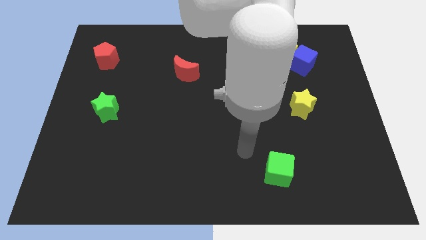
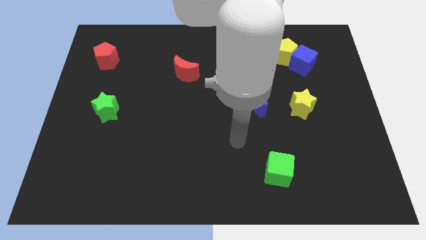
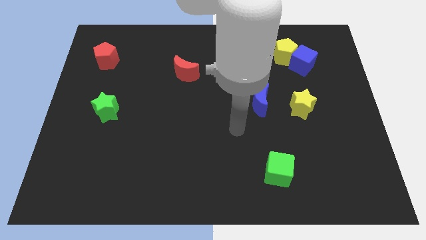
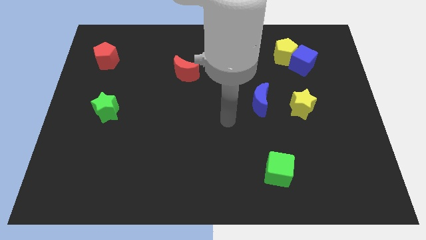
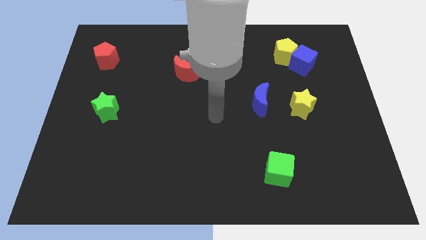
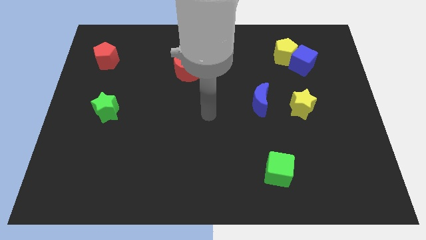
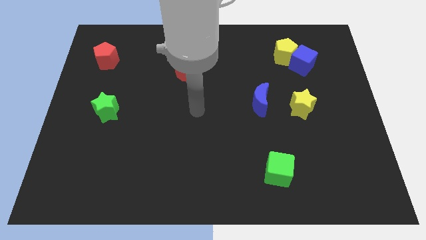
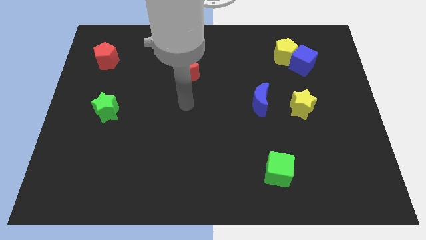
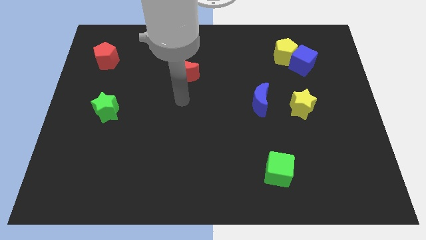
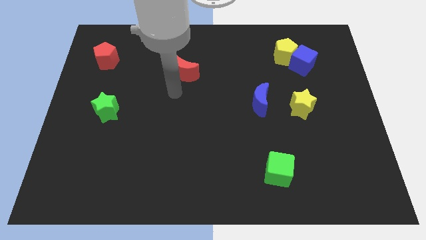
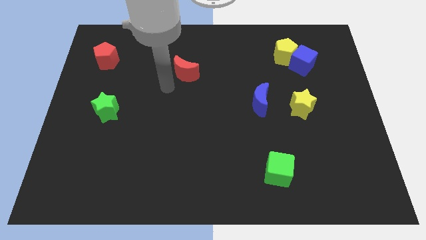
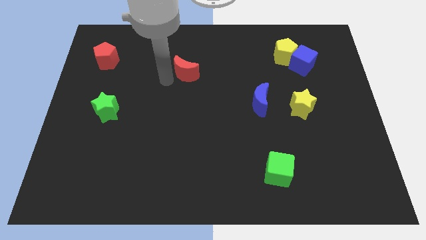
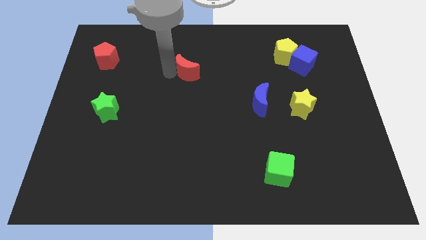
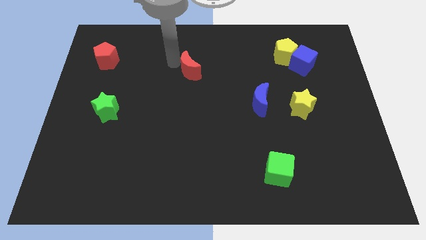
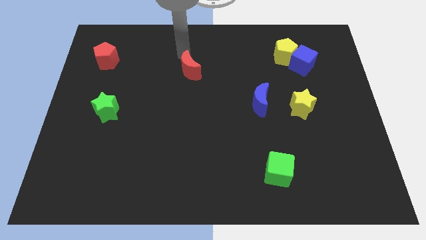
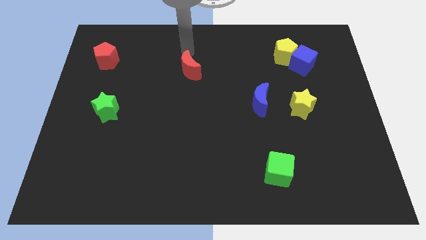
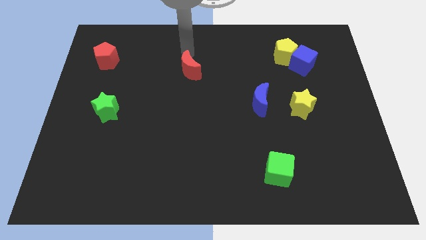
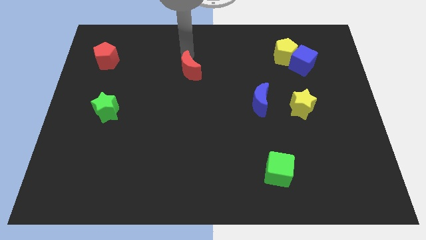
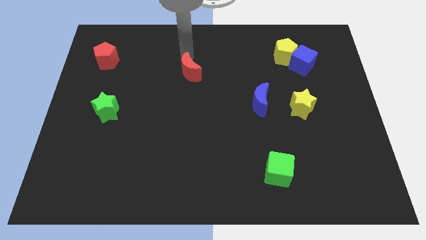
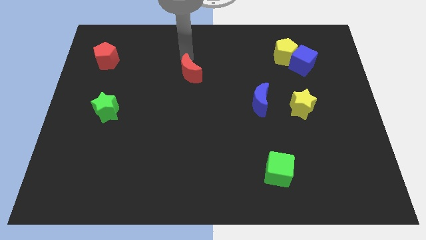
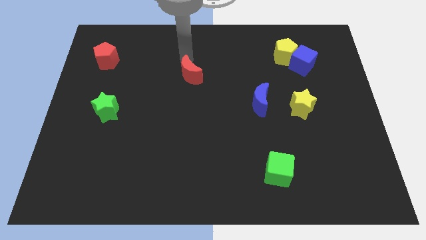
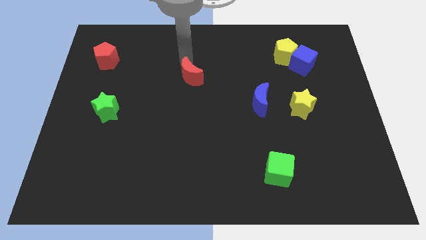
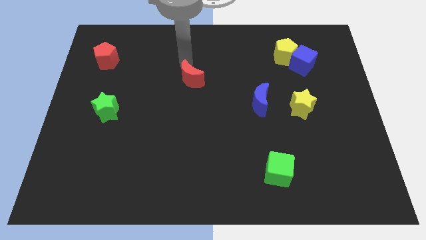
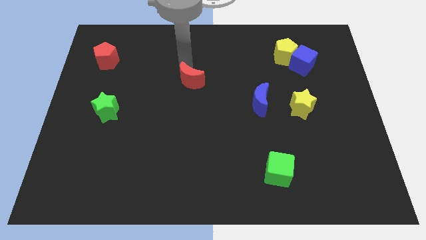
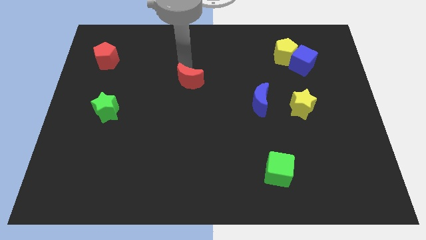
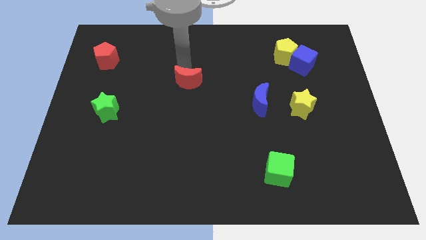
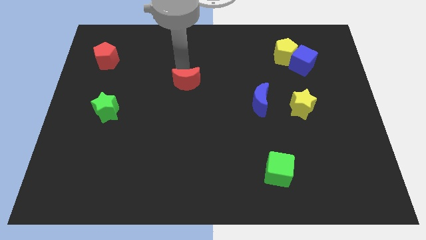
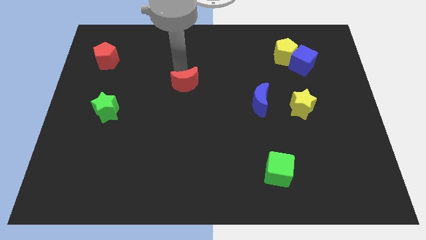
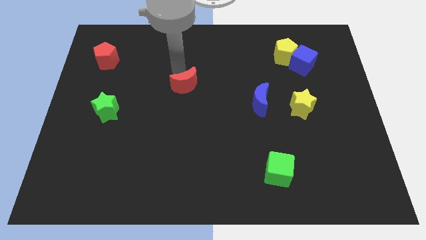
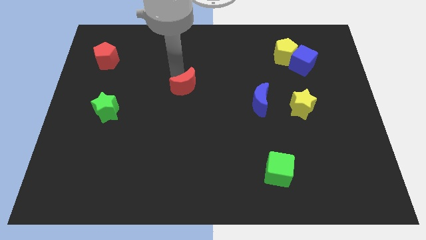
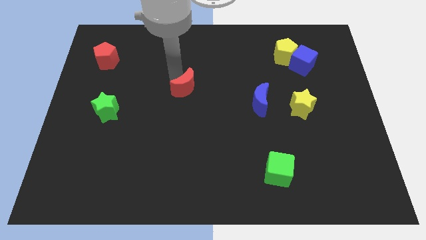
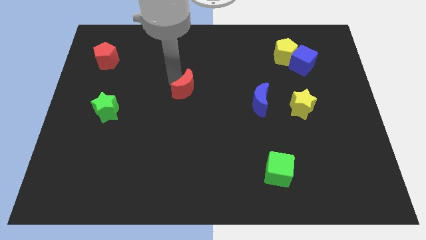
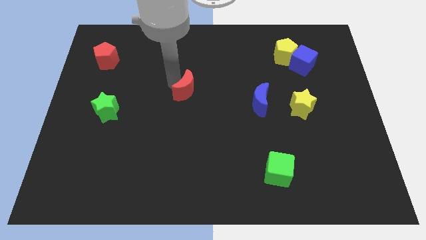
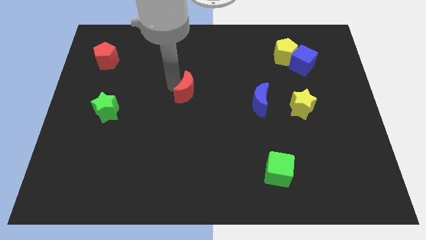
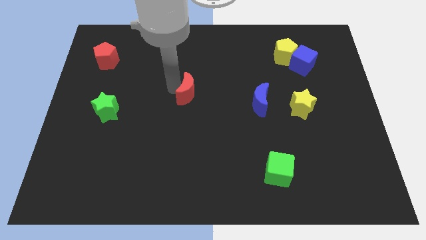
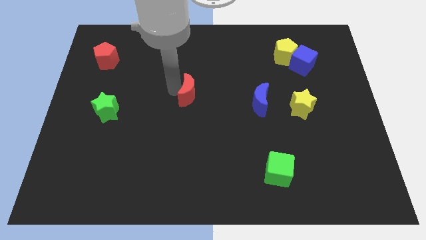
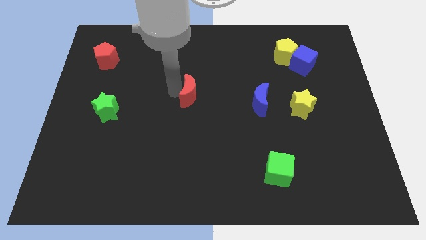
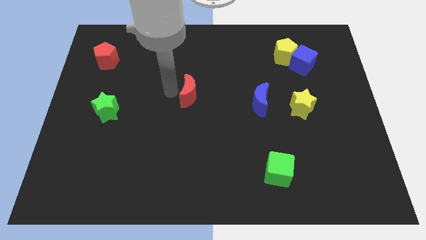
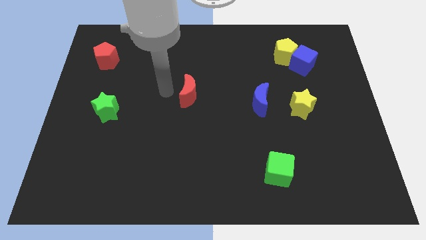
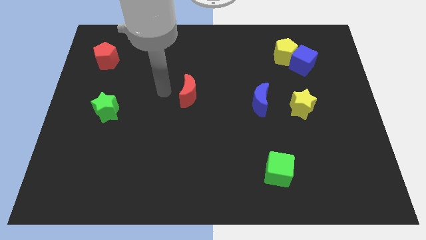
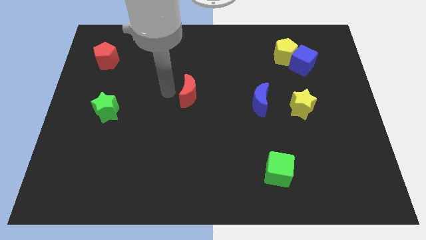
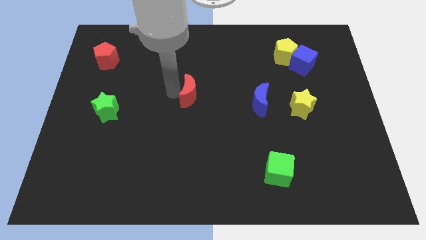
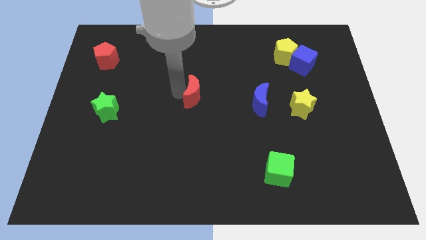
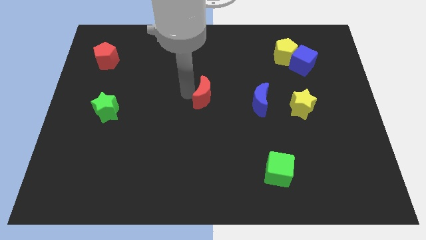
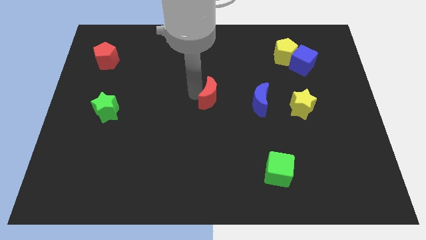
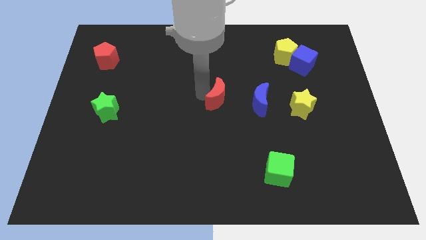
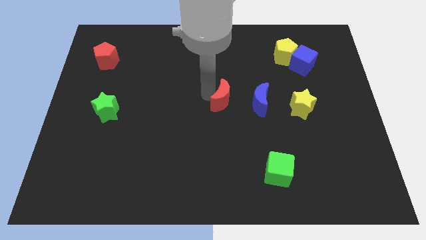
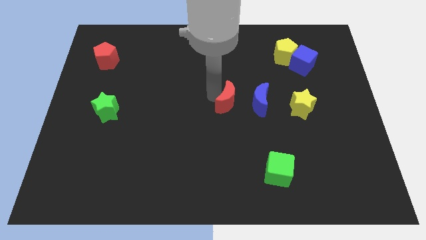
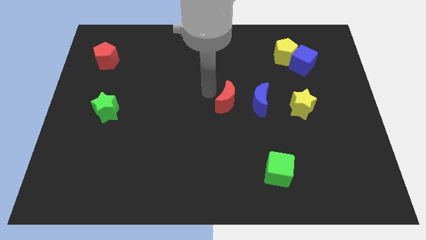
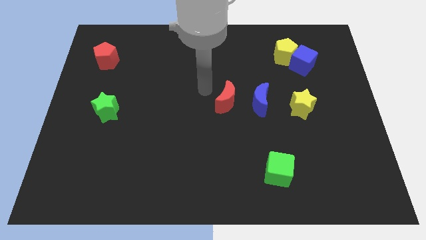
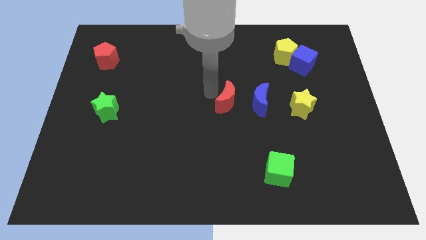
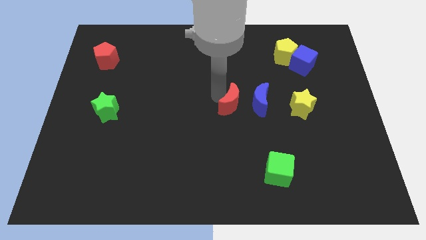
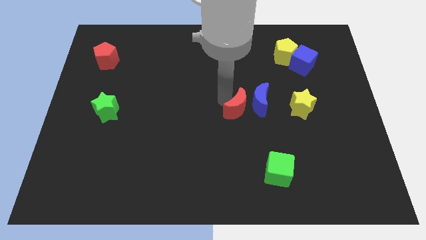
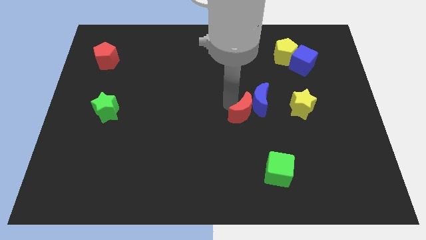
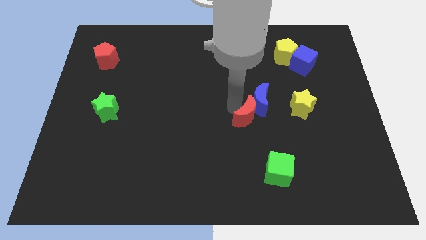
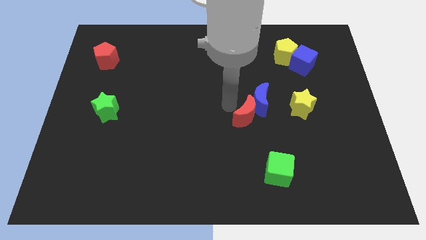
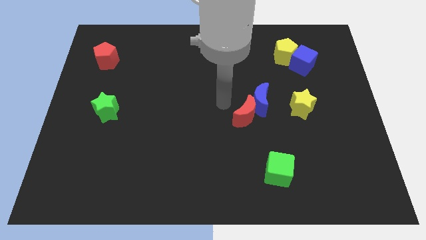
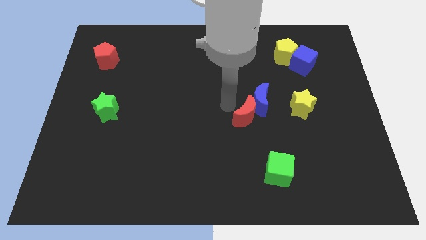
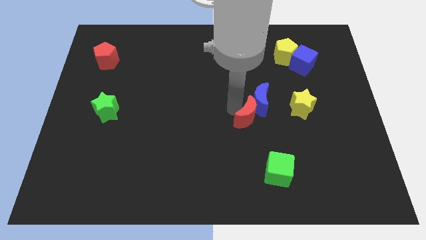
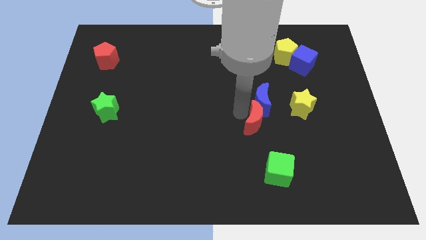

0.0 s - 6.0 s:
put the red moon above the green cube

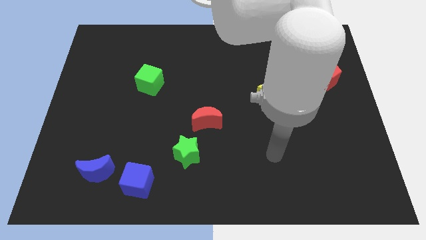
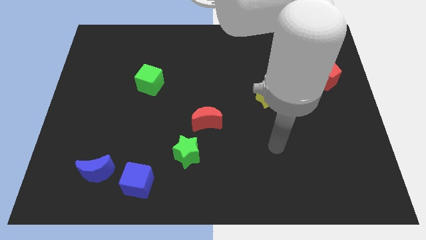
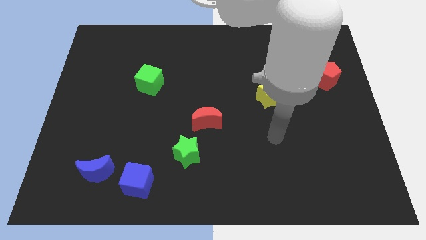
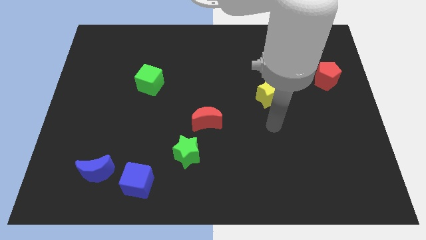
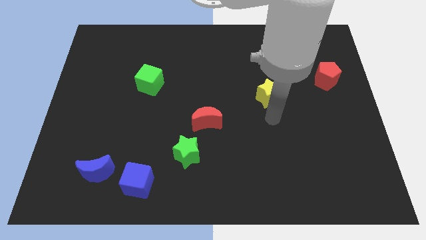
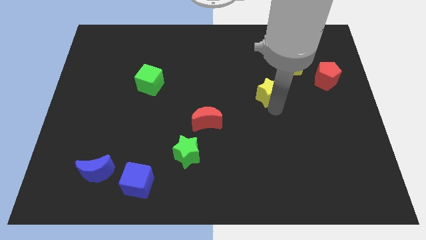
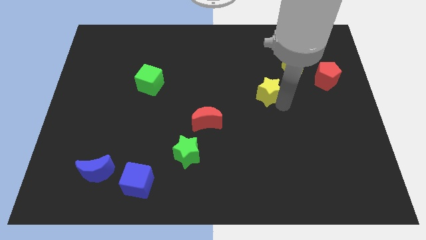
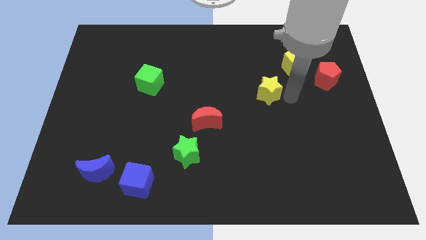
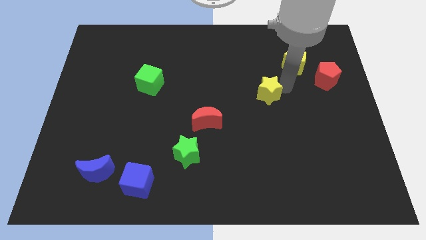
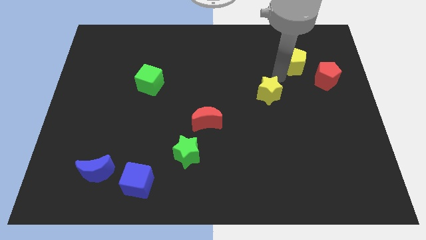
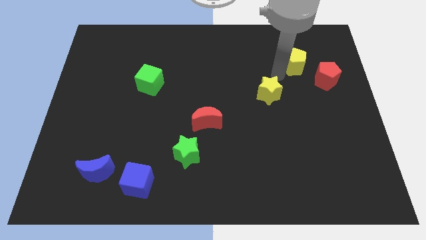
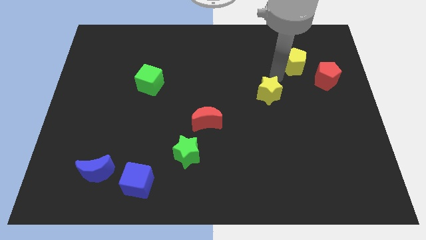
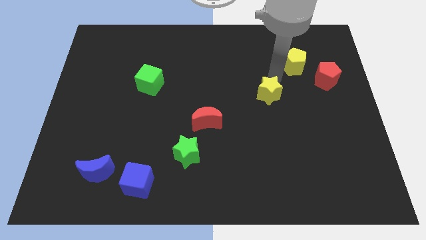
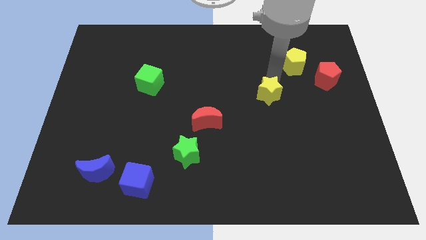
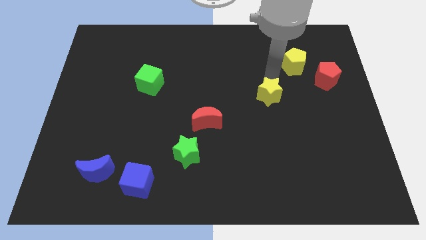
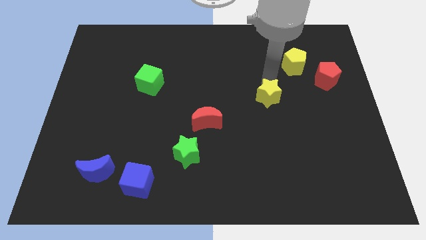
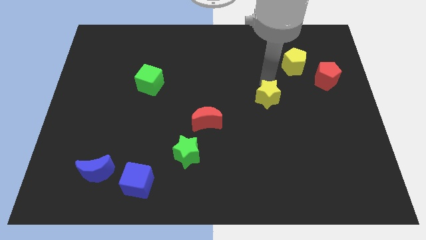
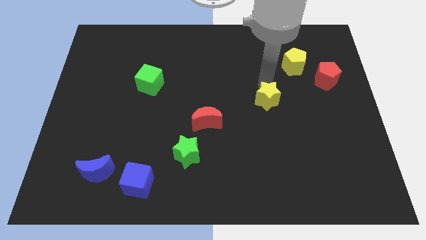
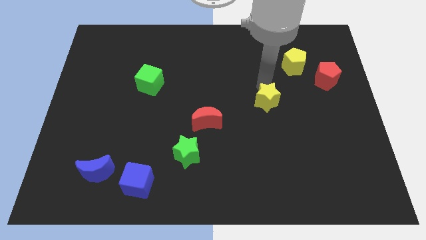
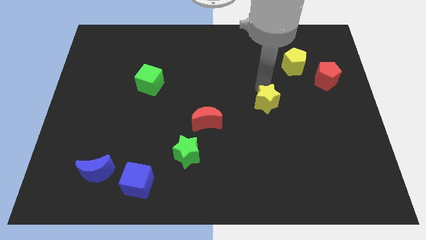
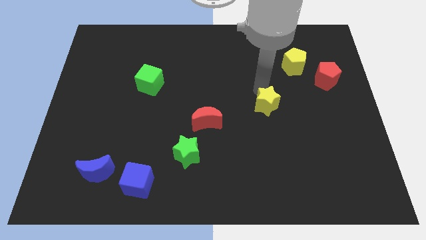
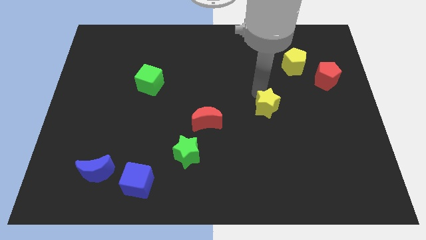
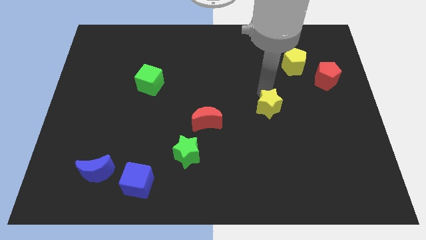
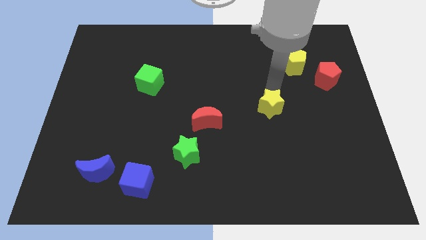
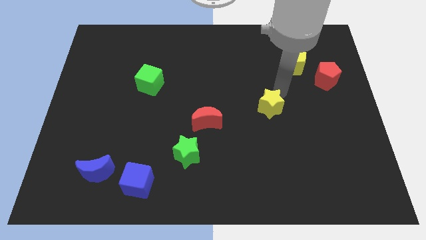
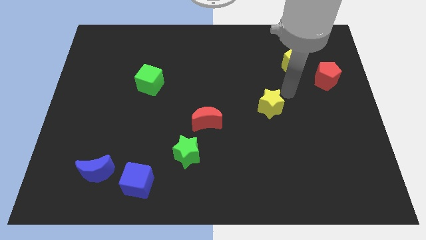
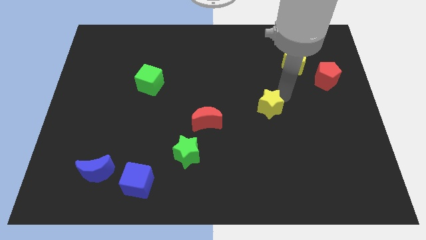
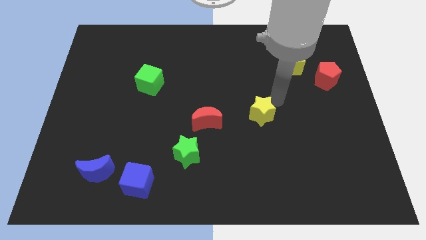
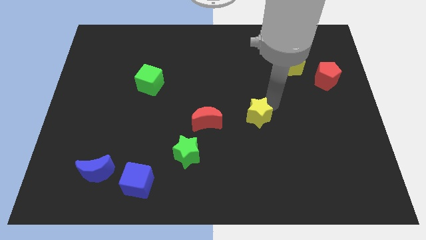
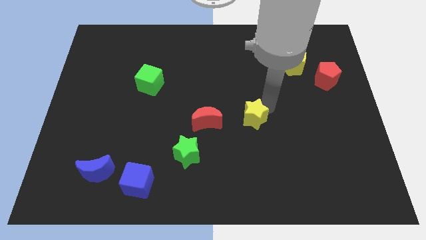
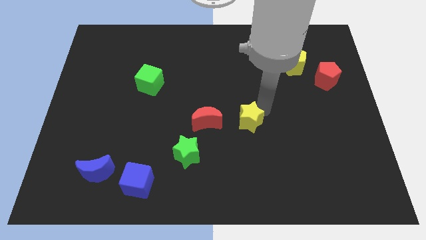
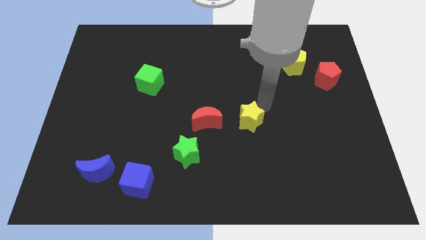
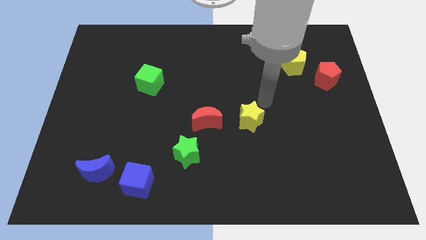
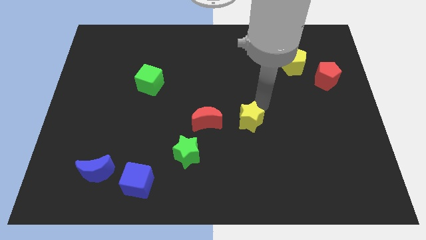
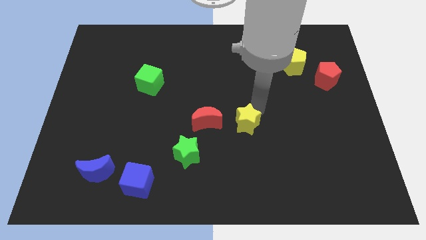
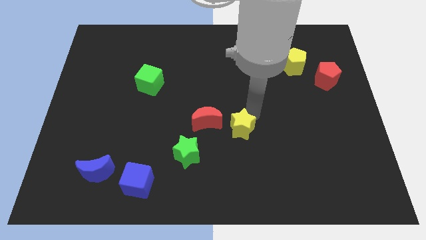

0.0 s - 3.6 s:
move the yellow star to the bottom right side of the red moon
